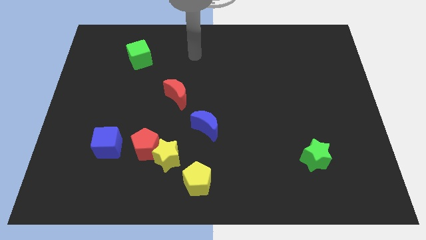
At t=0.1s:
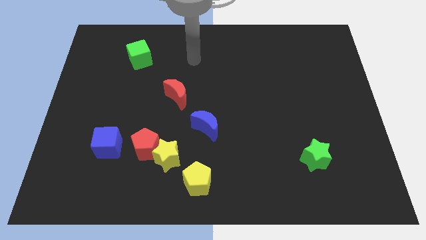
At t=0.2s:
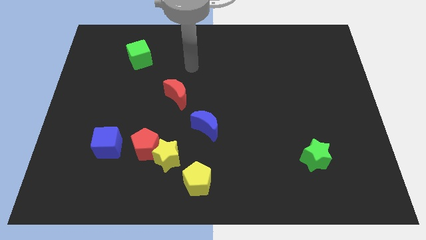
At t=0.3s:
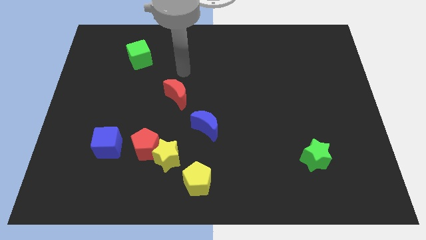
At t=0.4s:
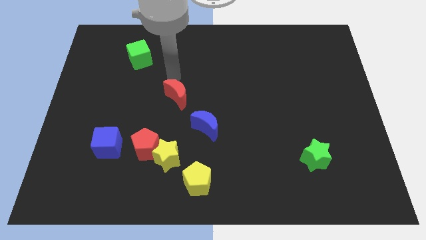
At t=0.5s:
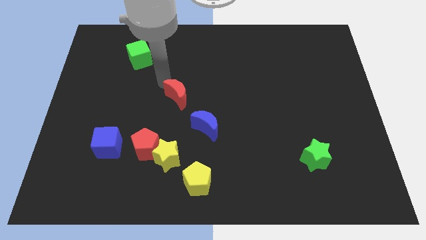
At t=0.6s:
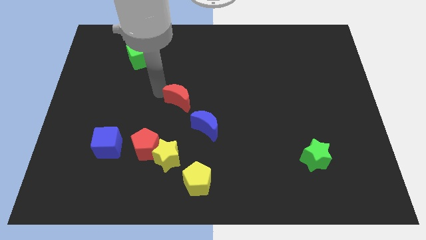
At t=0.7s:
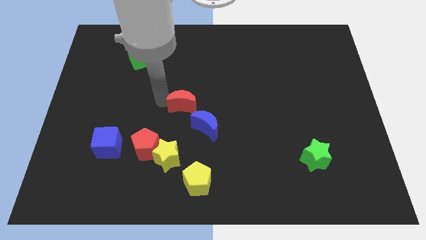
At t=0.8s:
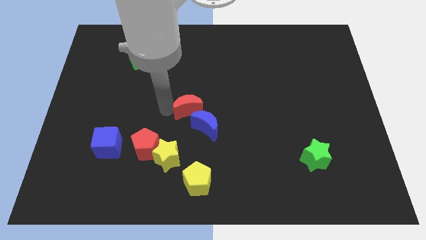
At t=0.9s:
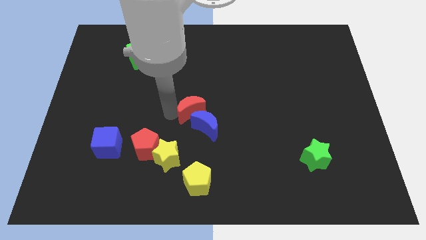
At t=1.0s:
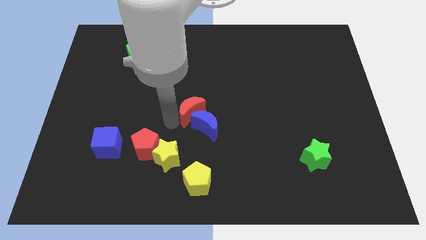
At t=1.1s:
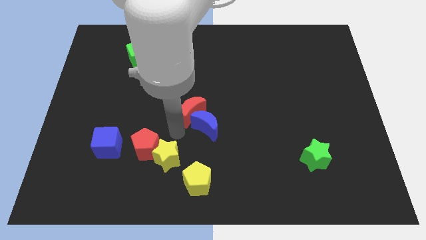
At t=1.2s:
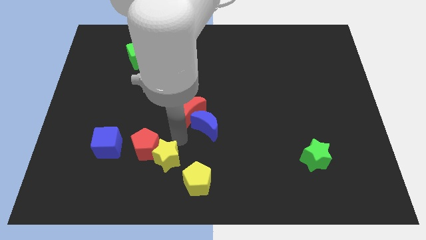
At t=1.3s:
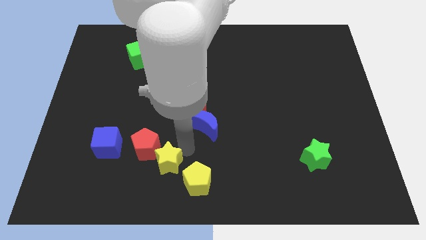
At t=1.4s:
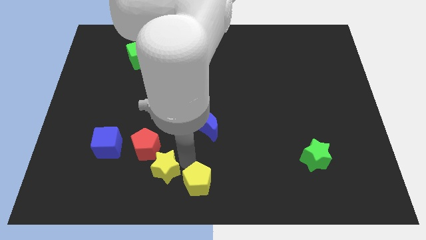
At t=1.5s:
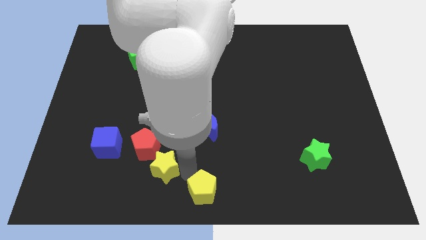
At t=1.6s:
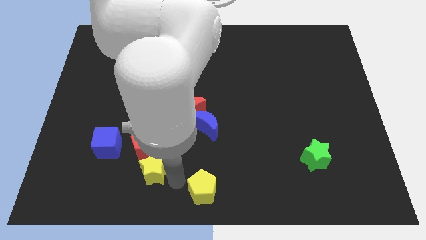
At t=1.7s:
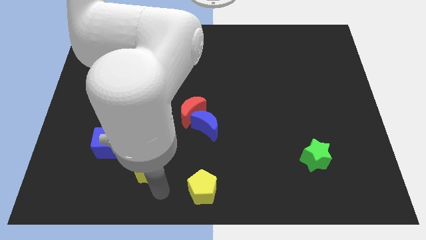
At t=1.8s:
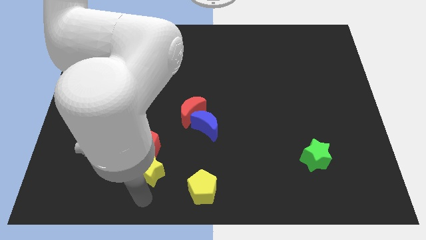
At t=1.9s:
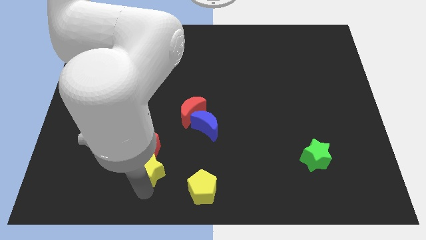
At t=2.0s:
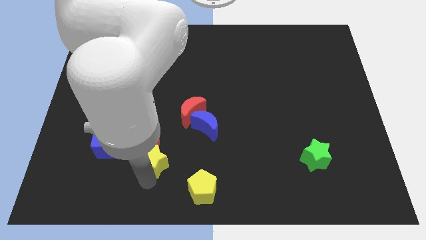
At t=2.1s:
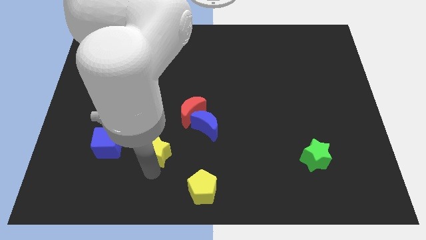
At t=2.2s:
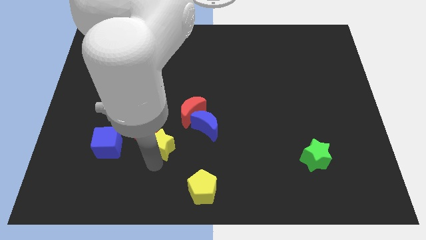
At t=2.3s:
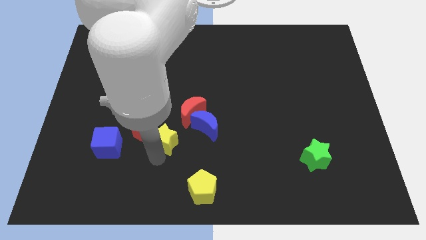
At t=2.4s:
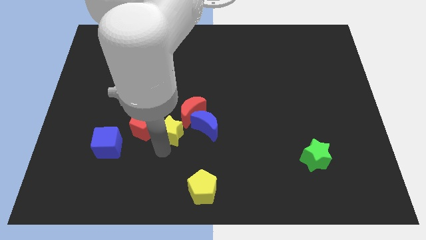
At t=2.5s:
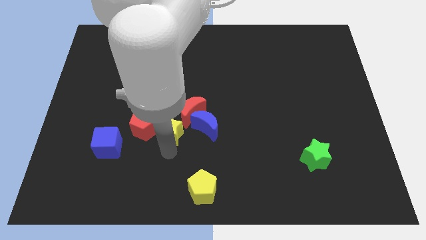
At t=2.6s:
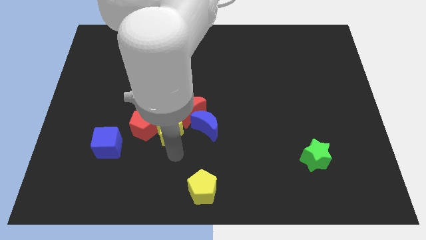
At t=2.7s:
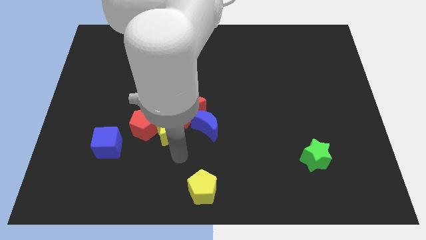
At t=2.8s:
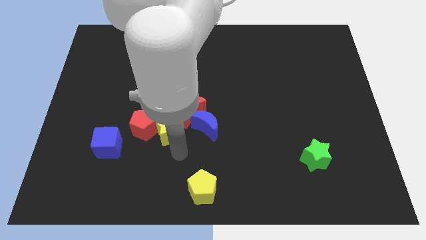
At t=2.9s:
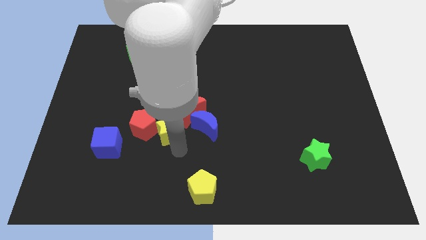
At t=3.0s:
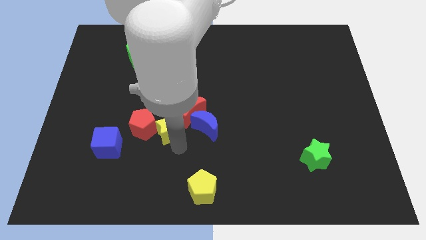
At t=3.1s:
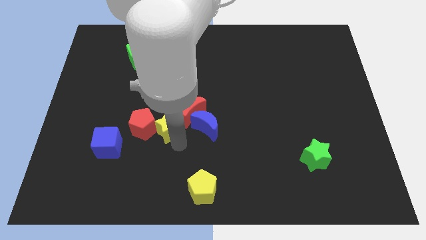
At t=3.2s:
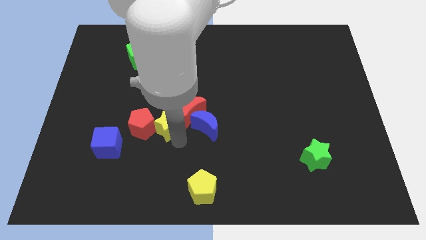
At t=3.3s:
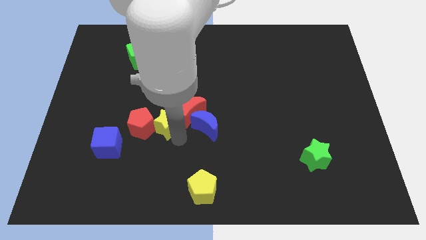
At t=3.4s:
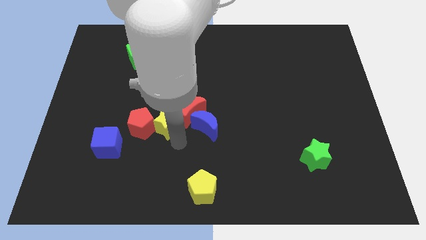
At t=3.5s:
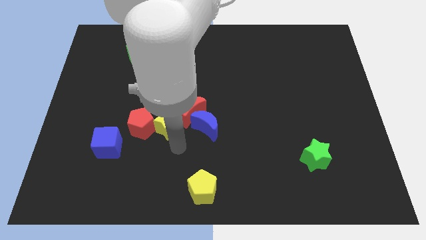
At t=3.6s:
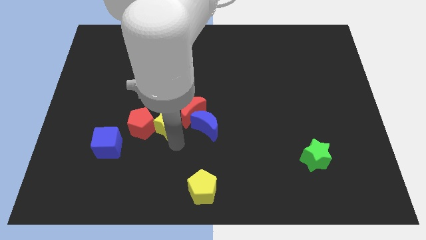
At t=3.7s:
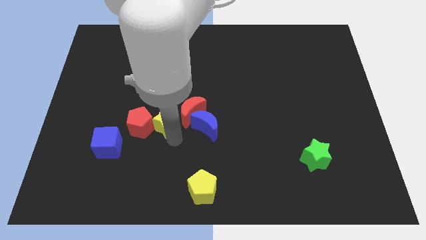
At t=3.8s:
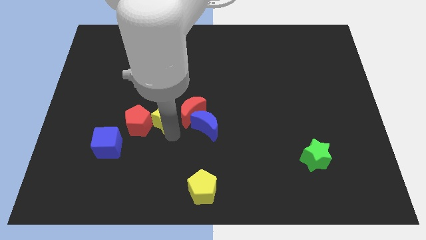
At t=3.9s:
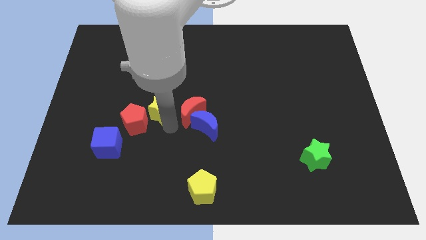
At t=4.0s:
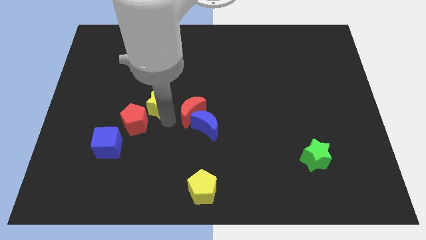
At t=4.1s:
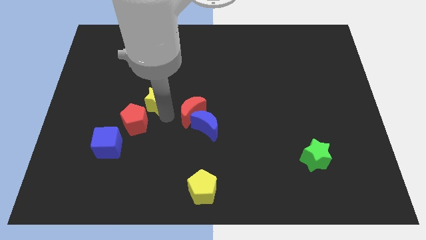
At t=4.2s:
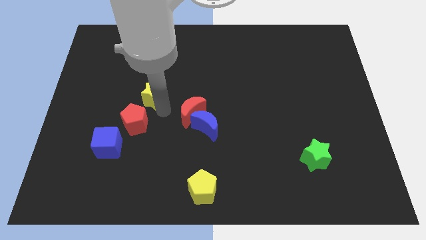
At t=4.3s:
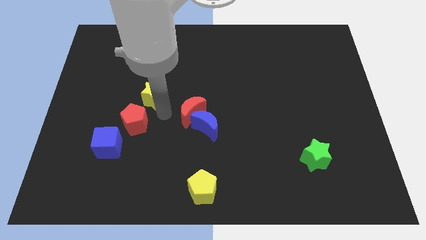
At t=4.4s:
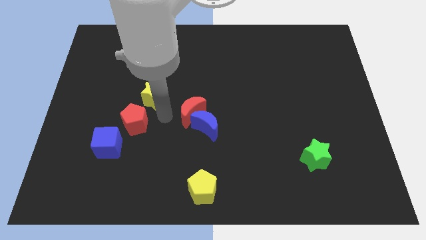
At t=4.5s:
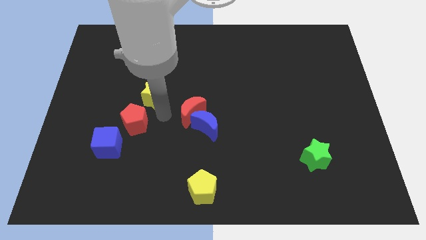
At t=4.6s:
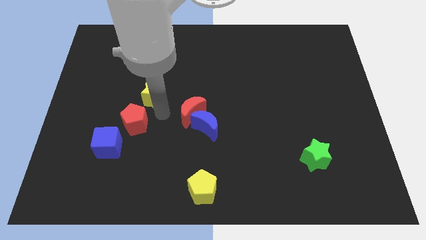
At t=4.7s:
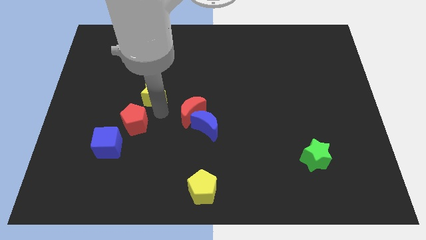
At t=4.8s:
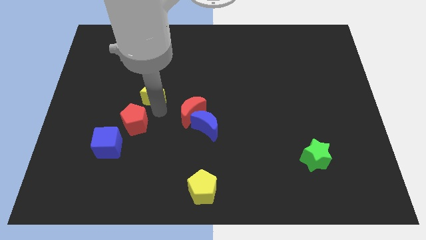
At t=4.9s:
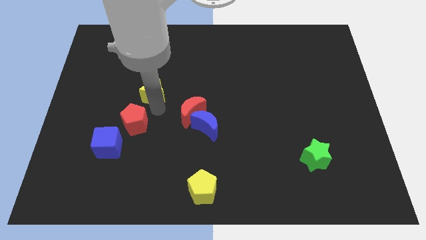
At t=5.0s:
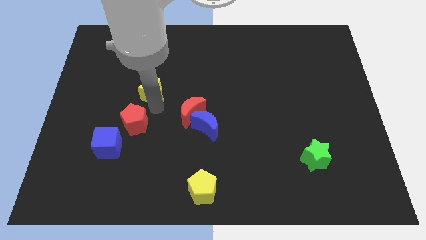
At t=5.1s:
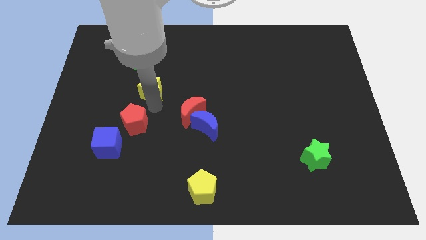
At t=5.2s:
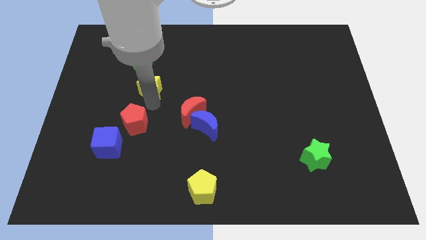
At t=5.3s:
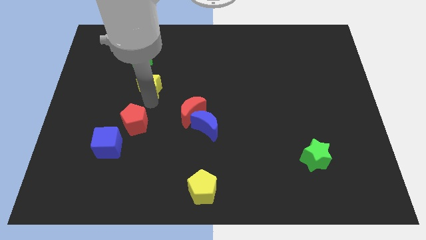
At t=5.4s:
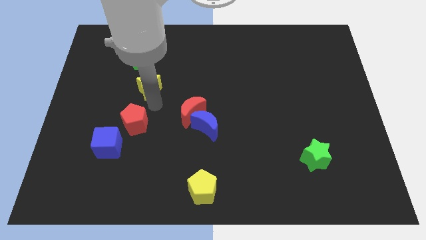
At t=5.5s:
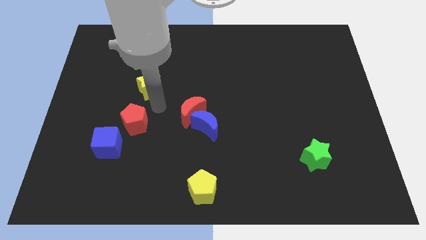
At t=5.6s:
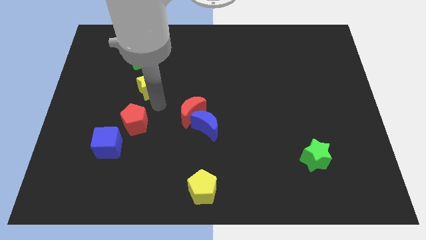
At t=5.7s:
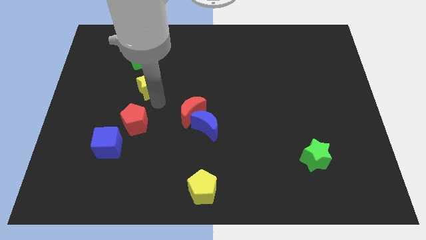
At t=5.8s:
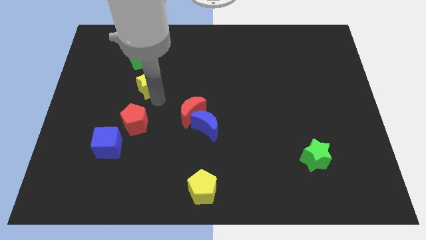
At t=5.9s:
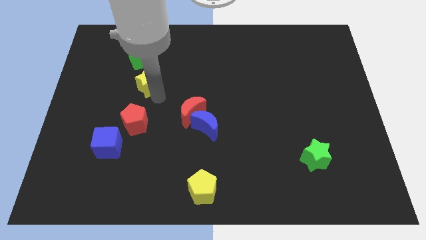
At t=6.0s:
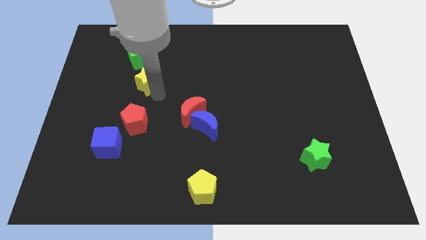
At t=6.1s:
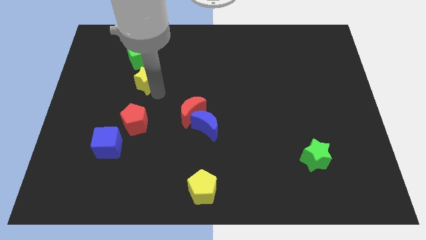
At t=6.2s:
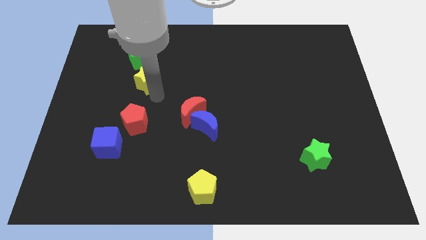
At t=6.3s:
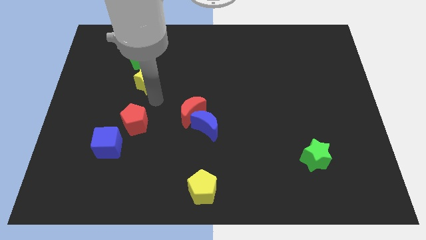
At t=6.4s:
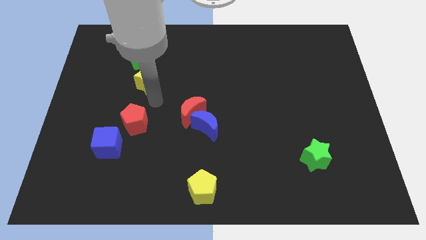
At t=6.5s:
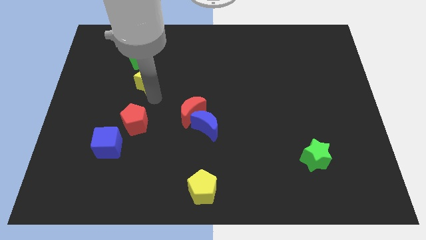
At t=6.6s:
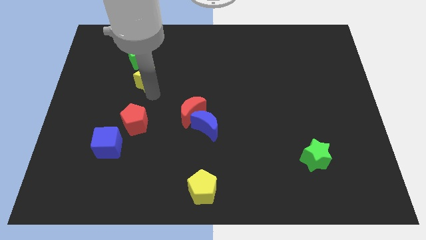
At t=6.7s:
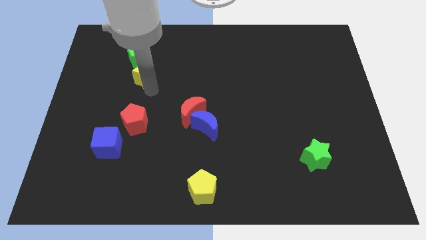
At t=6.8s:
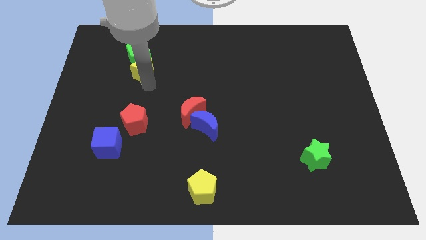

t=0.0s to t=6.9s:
move the yellow star next to the green cube

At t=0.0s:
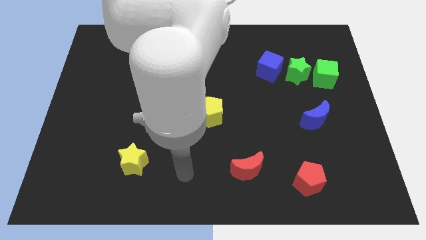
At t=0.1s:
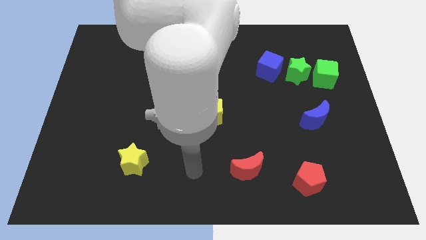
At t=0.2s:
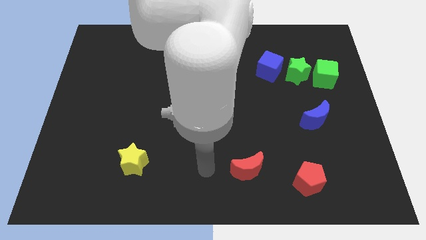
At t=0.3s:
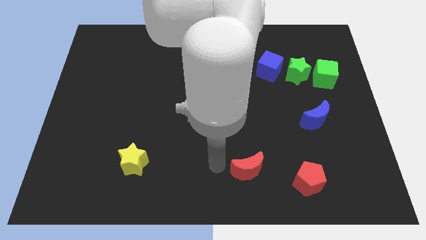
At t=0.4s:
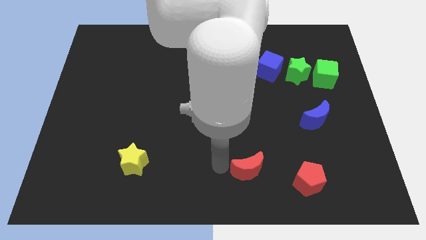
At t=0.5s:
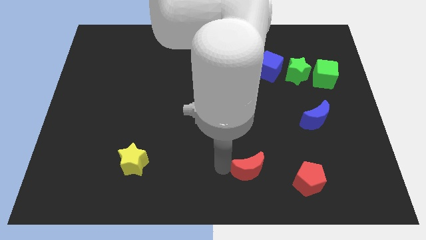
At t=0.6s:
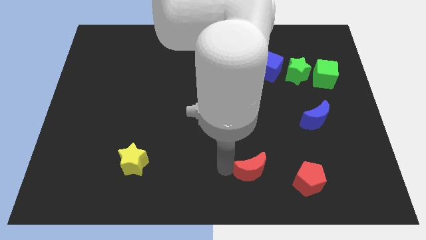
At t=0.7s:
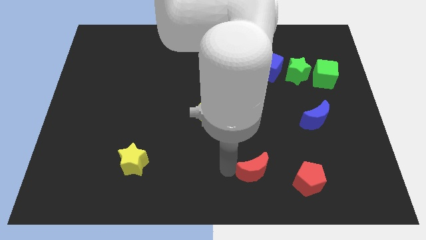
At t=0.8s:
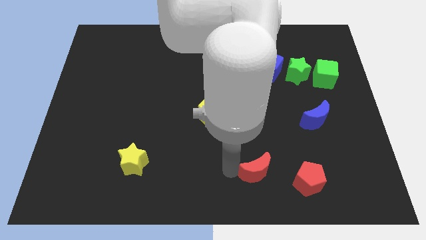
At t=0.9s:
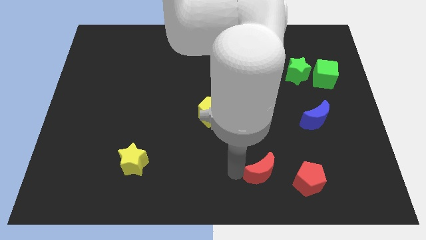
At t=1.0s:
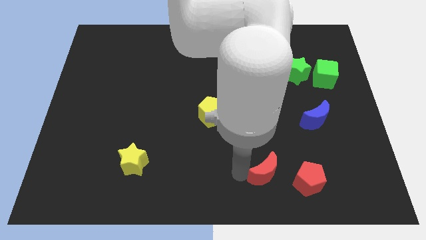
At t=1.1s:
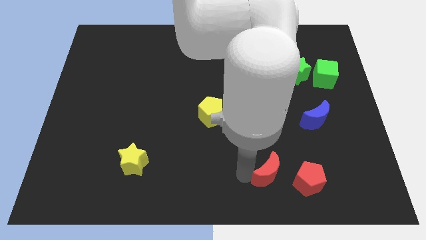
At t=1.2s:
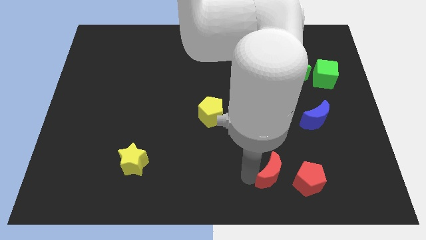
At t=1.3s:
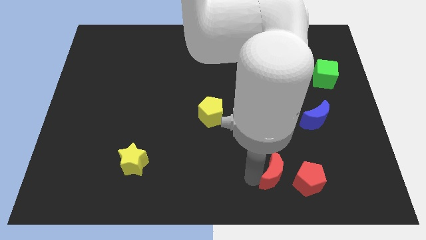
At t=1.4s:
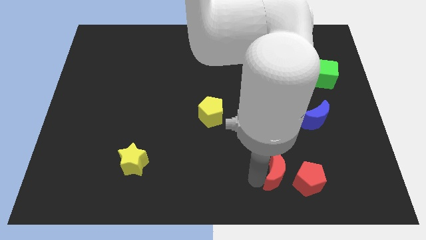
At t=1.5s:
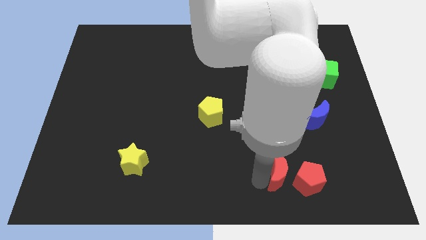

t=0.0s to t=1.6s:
put the red moon next to the red pentagon
